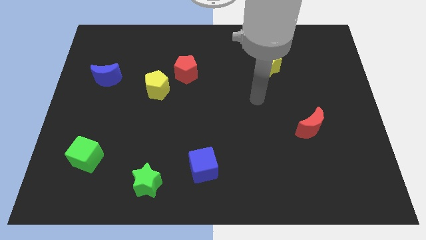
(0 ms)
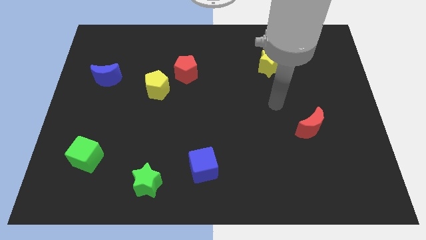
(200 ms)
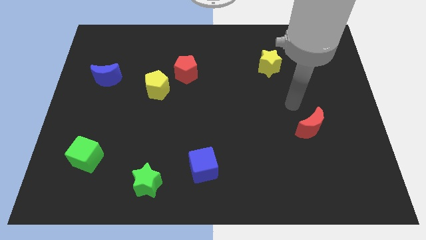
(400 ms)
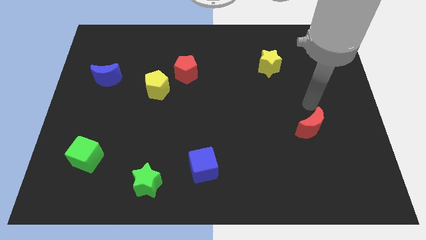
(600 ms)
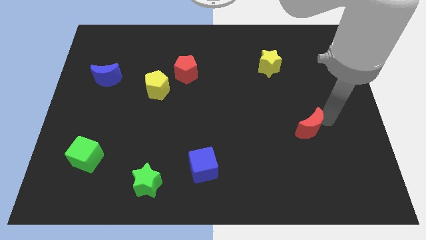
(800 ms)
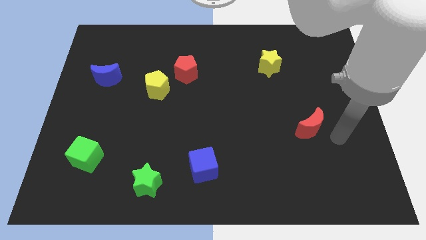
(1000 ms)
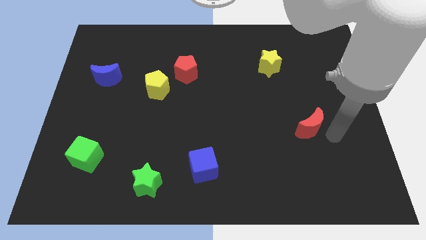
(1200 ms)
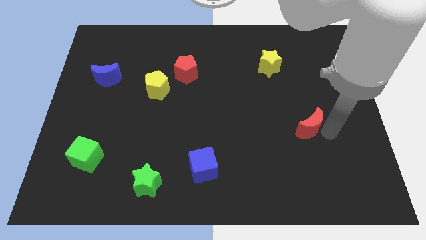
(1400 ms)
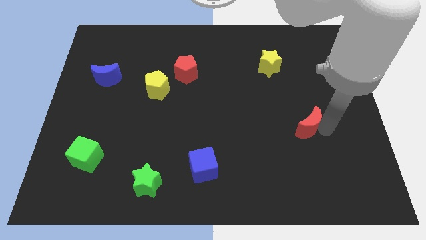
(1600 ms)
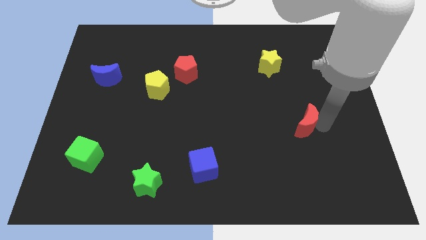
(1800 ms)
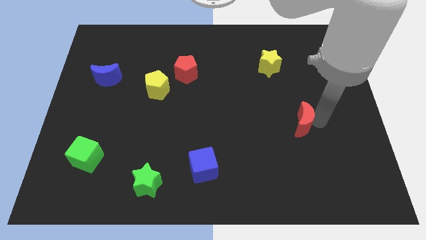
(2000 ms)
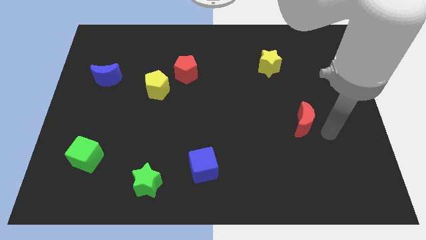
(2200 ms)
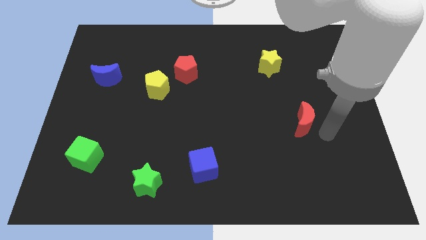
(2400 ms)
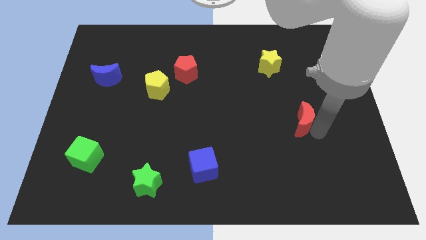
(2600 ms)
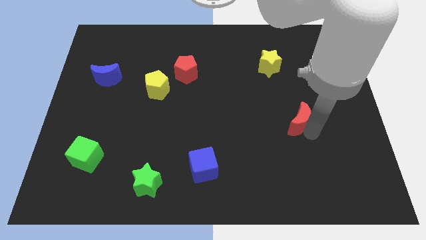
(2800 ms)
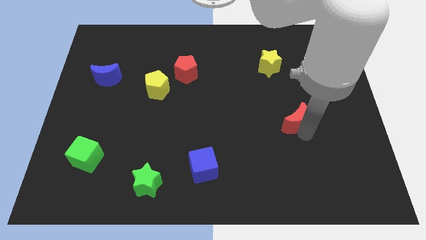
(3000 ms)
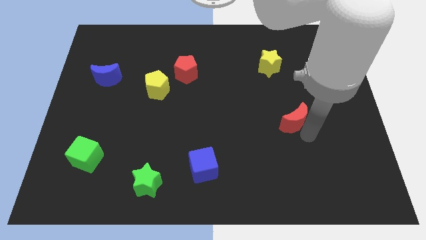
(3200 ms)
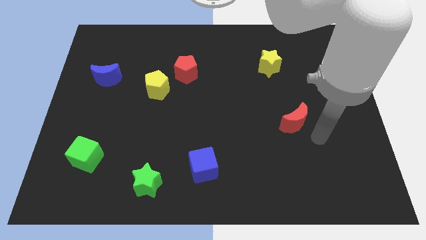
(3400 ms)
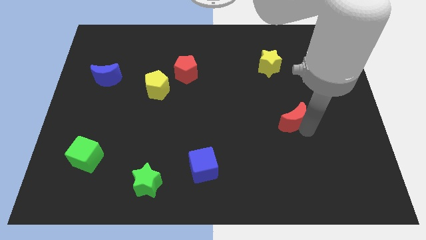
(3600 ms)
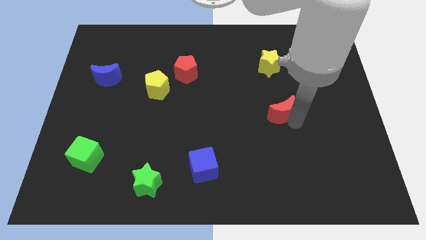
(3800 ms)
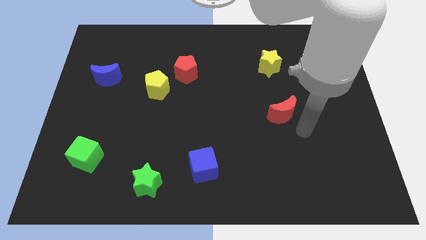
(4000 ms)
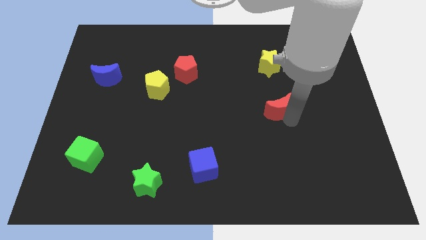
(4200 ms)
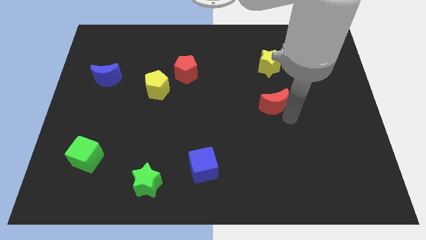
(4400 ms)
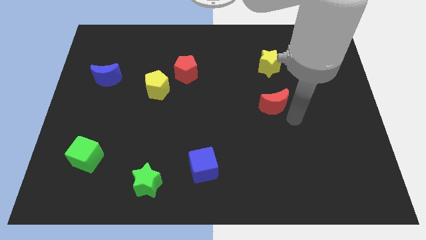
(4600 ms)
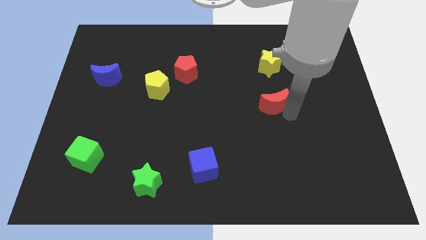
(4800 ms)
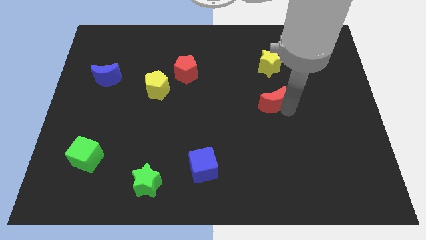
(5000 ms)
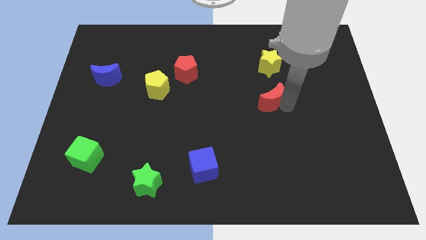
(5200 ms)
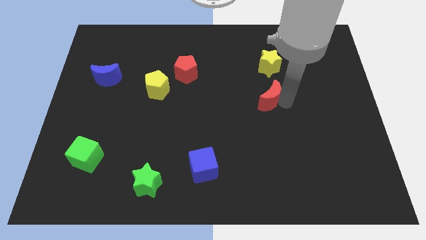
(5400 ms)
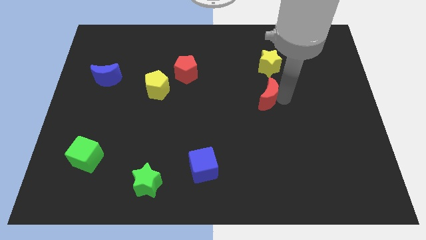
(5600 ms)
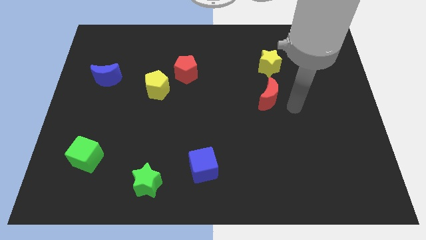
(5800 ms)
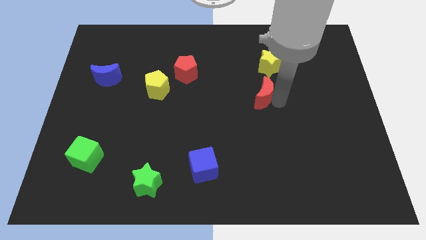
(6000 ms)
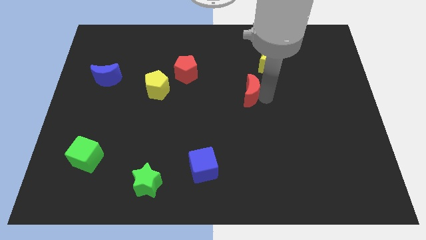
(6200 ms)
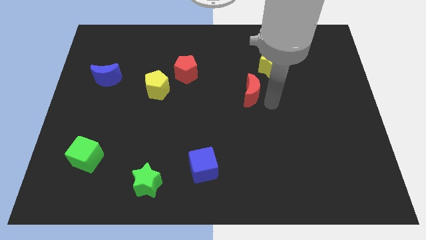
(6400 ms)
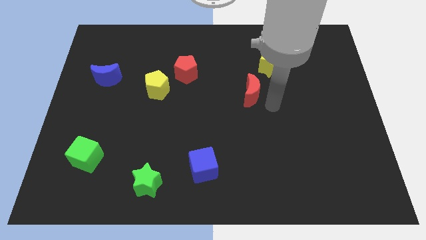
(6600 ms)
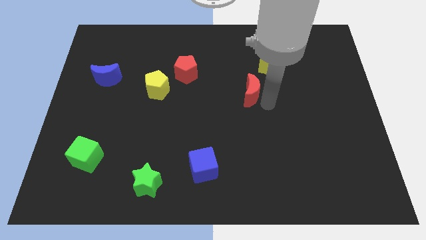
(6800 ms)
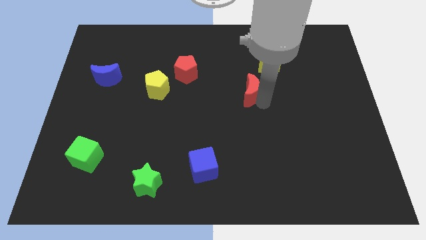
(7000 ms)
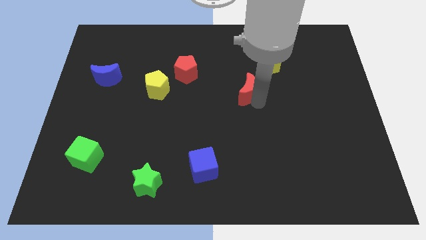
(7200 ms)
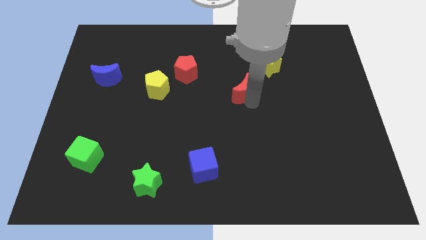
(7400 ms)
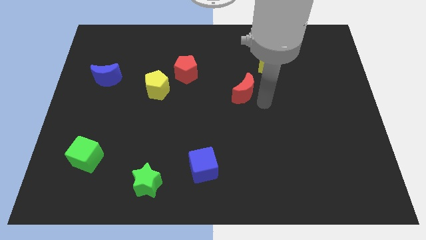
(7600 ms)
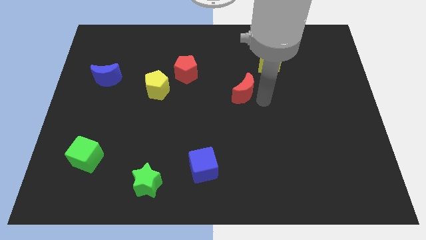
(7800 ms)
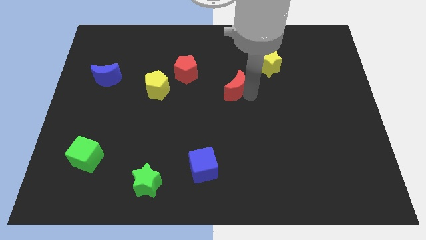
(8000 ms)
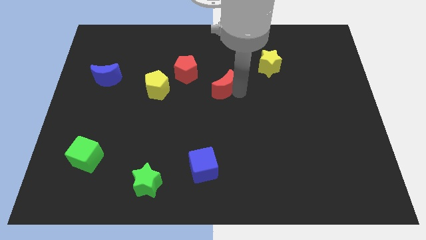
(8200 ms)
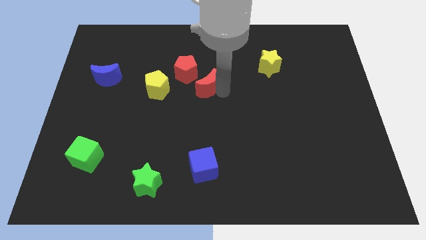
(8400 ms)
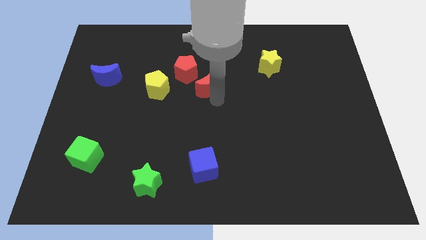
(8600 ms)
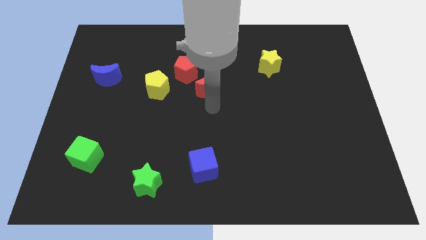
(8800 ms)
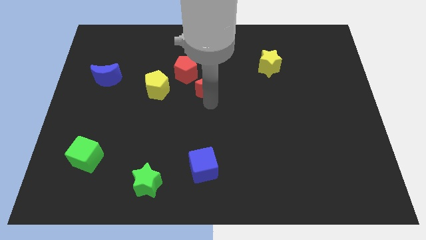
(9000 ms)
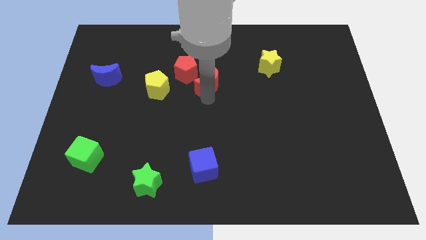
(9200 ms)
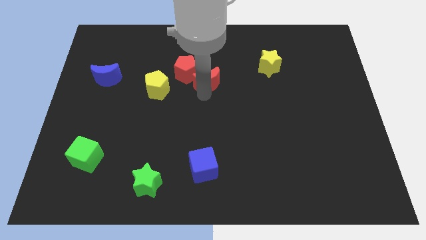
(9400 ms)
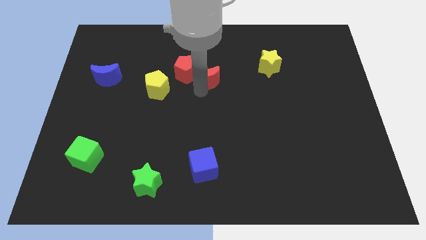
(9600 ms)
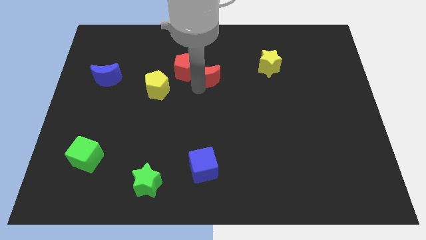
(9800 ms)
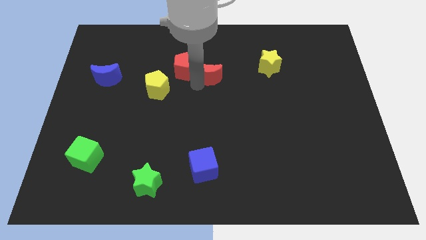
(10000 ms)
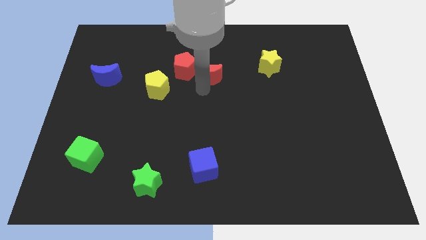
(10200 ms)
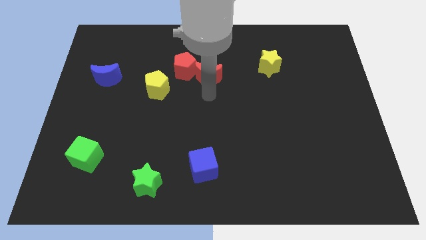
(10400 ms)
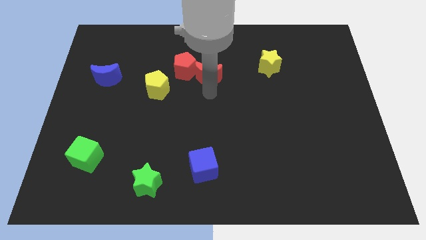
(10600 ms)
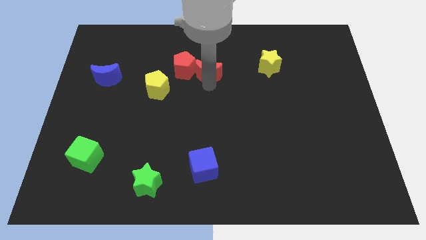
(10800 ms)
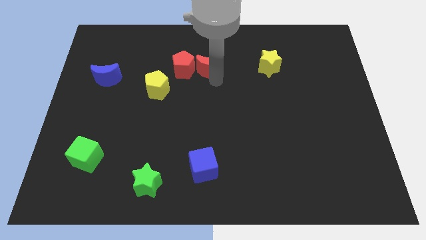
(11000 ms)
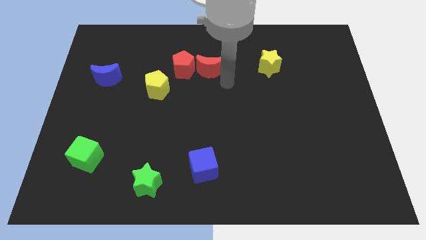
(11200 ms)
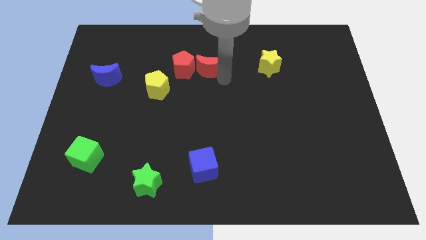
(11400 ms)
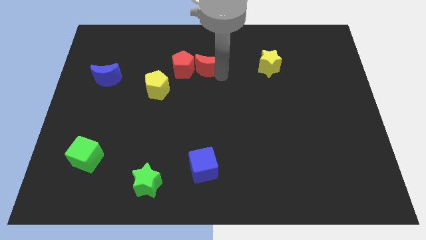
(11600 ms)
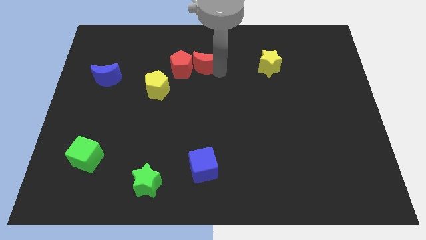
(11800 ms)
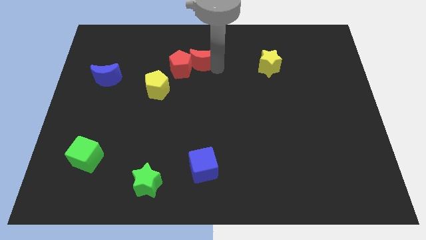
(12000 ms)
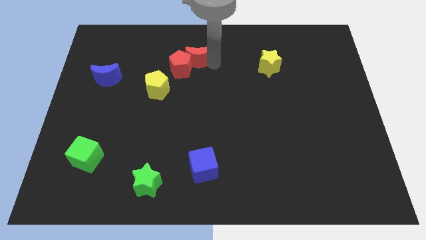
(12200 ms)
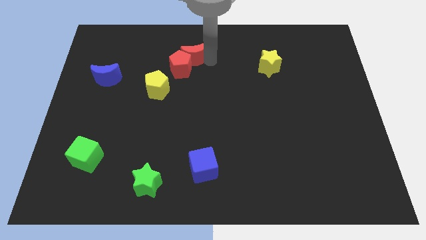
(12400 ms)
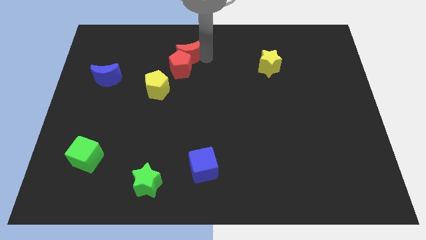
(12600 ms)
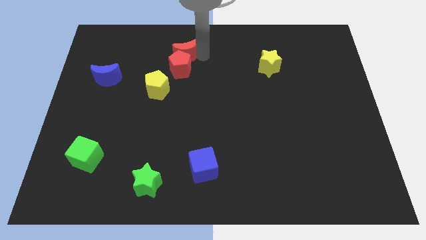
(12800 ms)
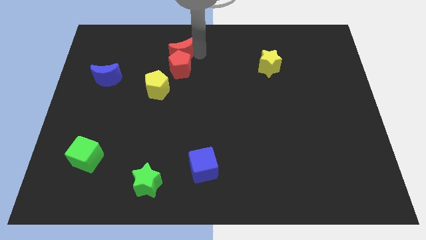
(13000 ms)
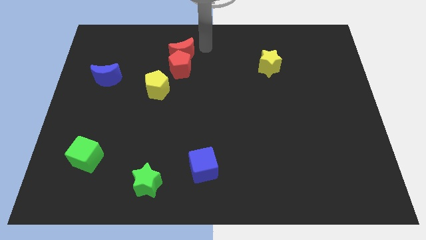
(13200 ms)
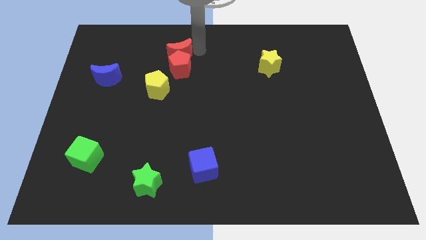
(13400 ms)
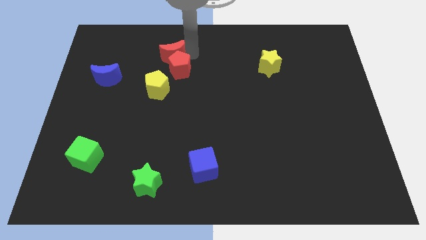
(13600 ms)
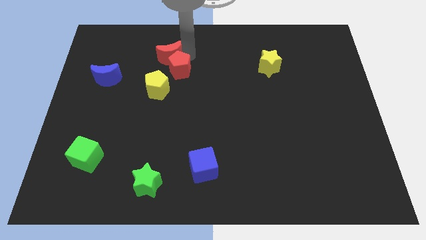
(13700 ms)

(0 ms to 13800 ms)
slide the red moon to the left of the red pentagon
